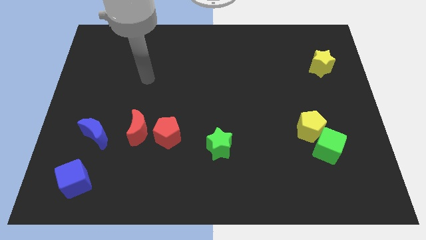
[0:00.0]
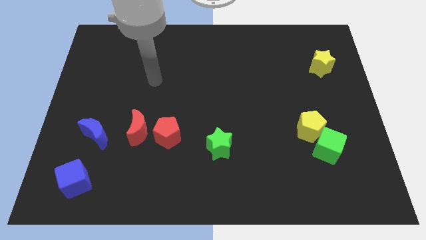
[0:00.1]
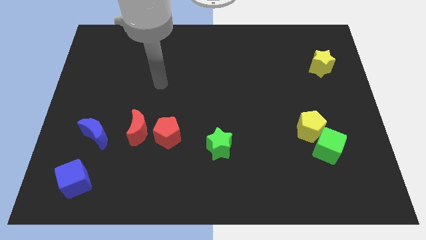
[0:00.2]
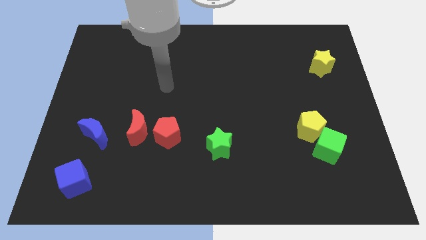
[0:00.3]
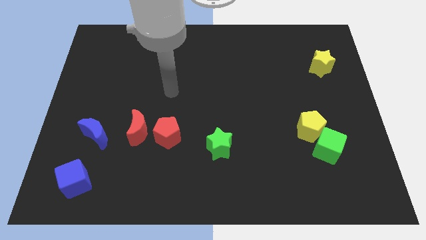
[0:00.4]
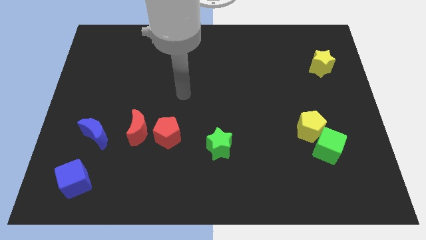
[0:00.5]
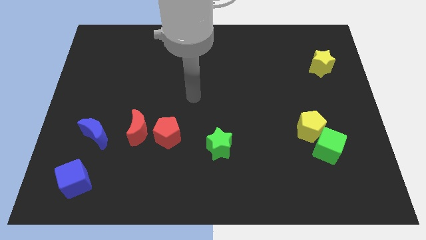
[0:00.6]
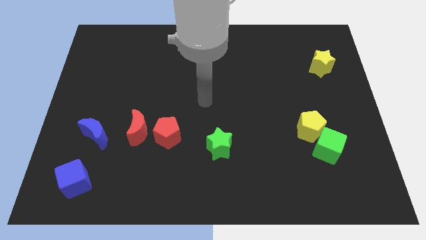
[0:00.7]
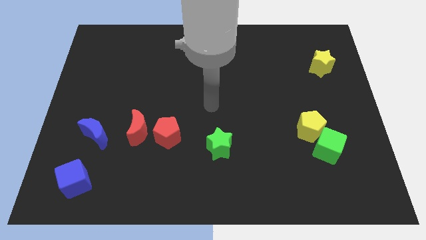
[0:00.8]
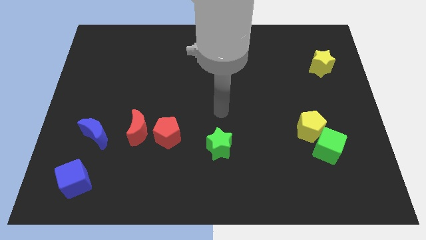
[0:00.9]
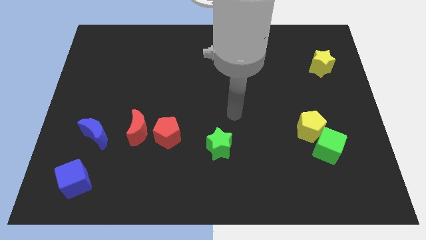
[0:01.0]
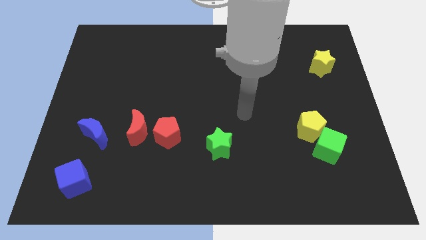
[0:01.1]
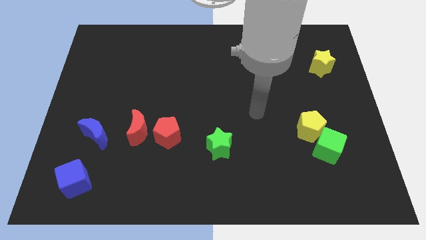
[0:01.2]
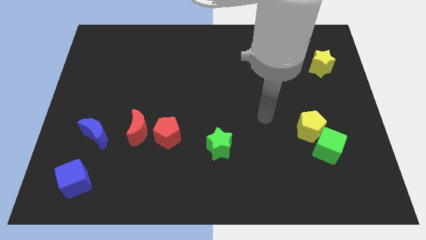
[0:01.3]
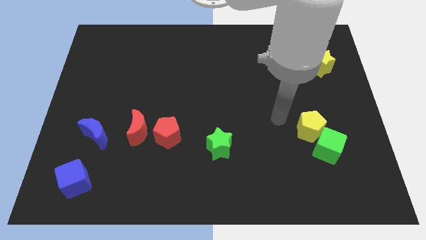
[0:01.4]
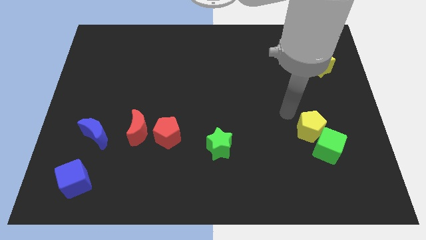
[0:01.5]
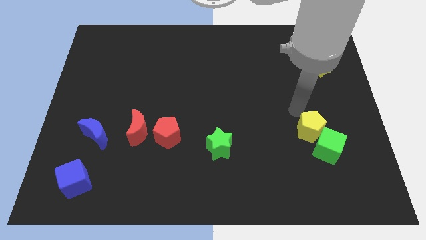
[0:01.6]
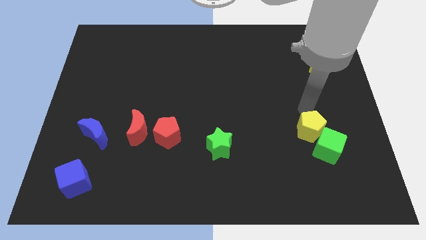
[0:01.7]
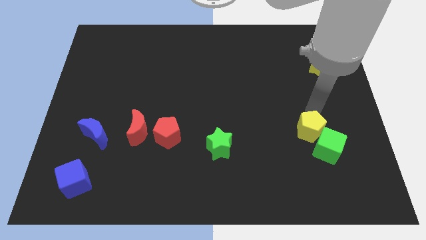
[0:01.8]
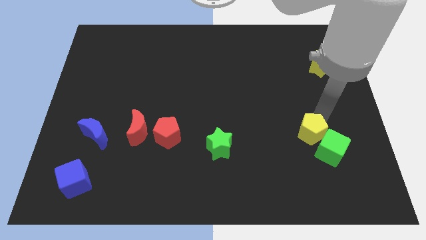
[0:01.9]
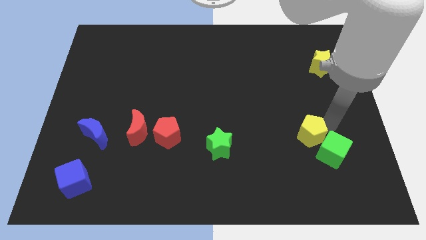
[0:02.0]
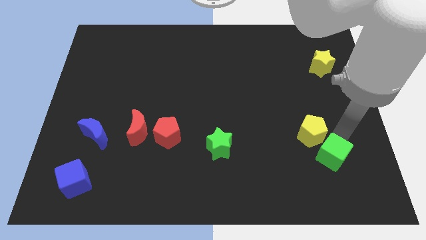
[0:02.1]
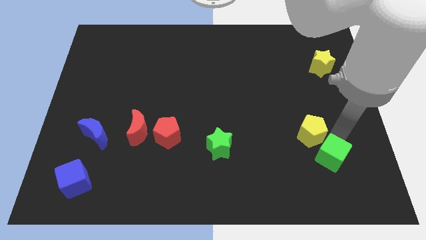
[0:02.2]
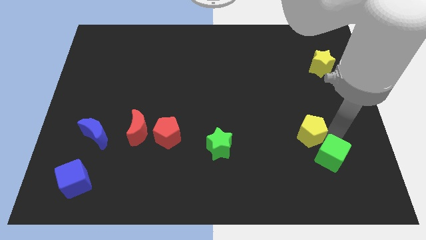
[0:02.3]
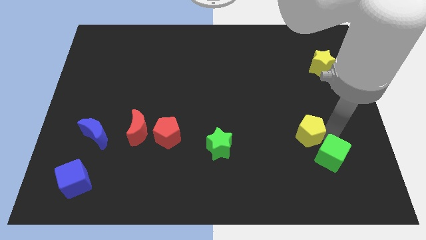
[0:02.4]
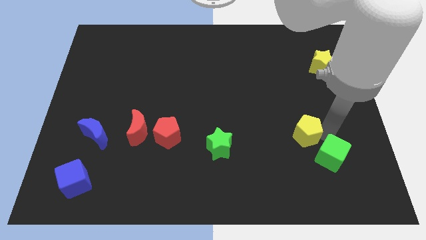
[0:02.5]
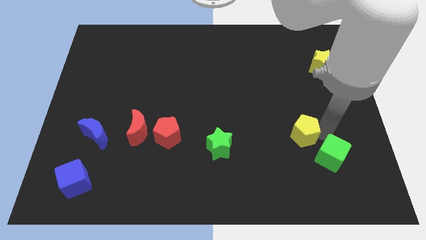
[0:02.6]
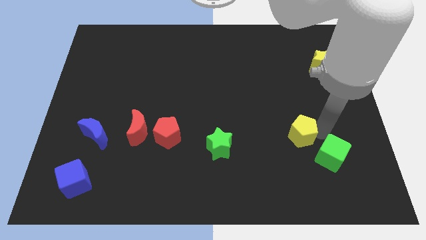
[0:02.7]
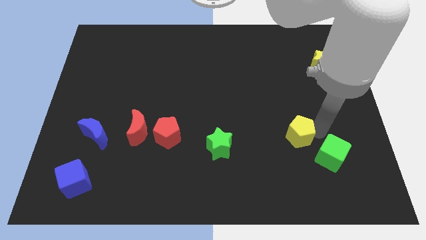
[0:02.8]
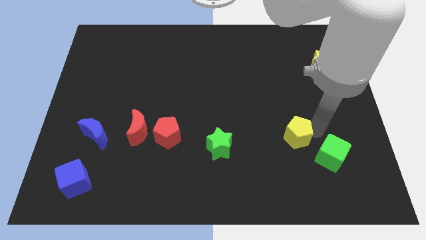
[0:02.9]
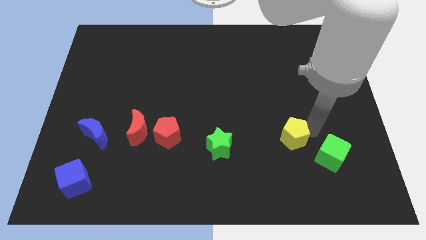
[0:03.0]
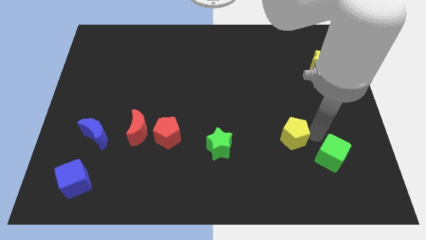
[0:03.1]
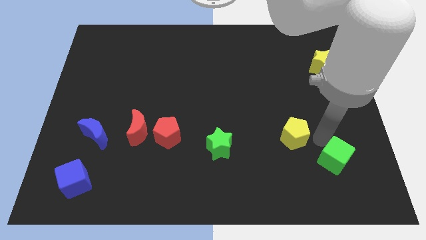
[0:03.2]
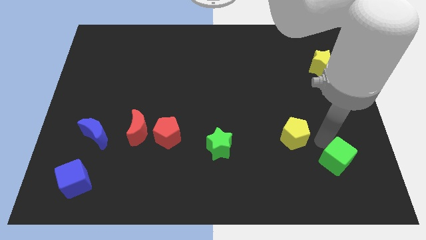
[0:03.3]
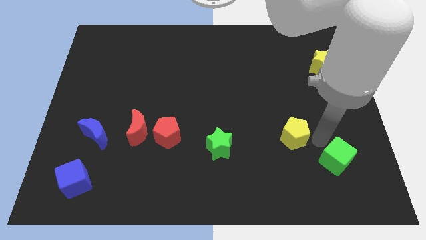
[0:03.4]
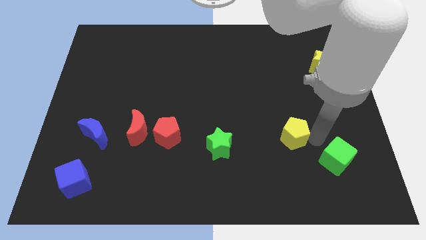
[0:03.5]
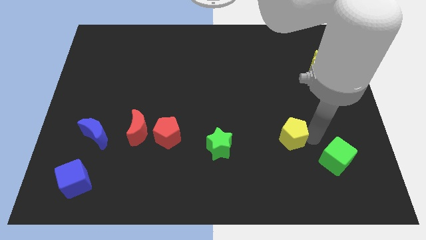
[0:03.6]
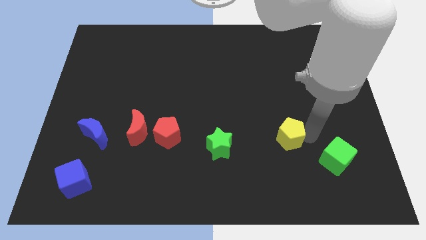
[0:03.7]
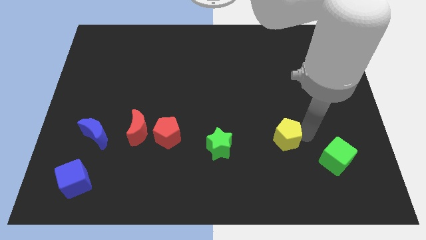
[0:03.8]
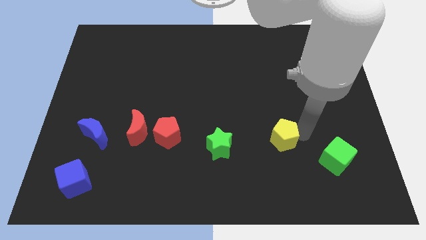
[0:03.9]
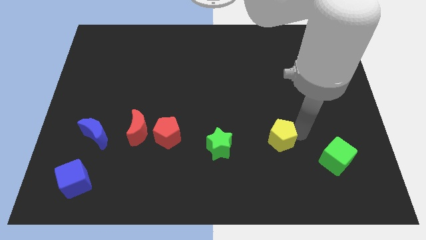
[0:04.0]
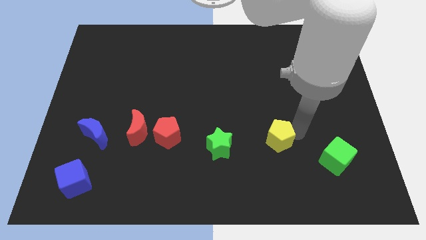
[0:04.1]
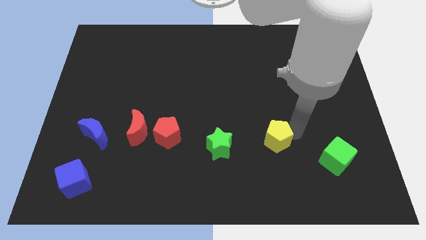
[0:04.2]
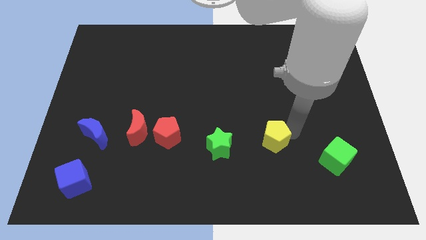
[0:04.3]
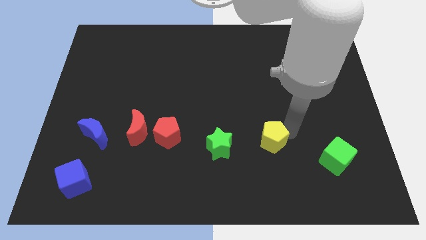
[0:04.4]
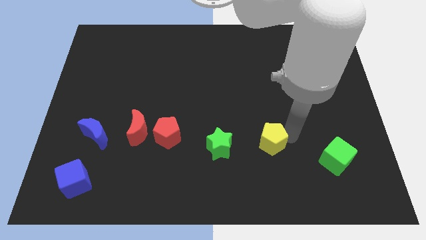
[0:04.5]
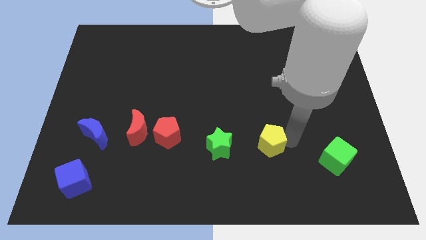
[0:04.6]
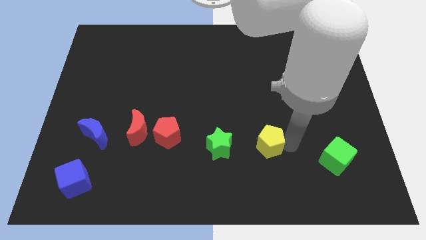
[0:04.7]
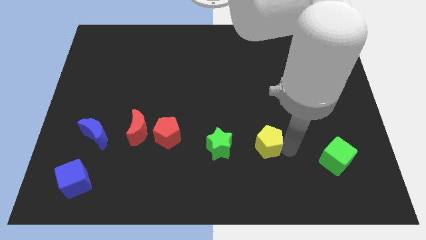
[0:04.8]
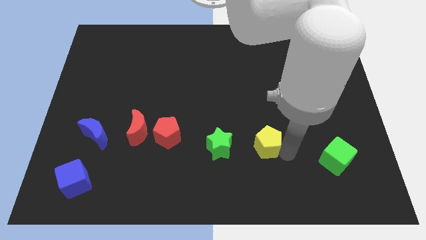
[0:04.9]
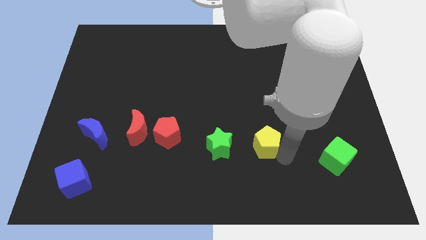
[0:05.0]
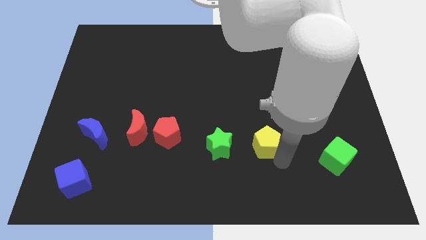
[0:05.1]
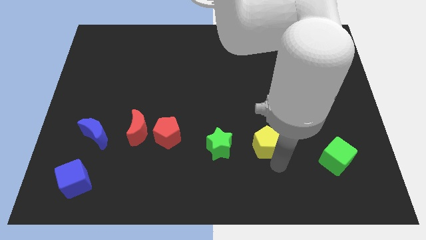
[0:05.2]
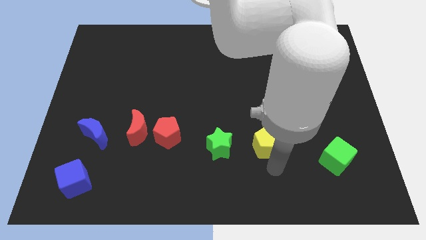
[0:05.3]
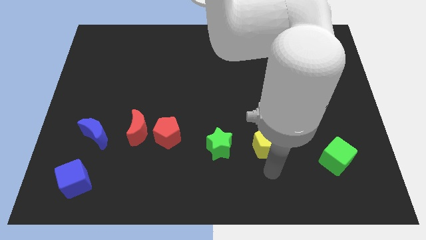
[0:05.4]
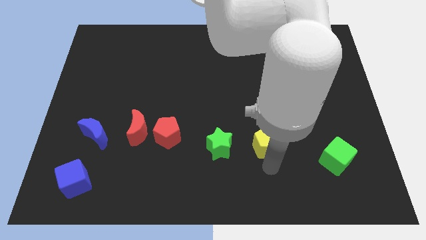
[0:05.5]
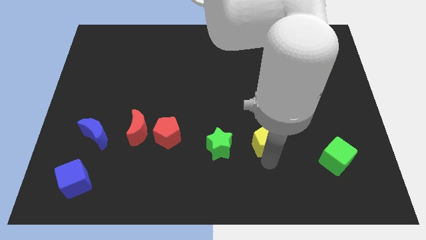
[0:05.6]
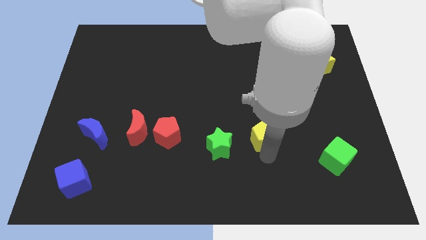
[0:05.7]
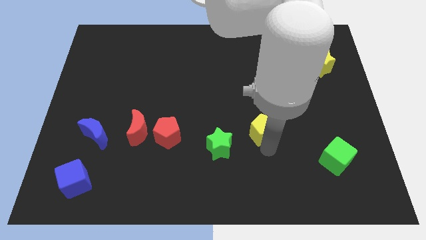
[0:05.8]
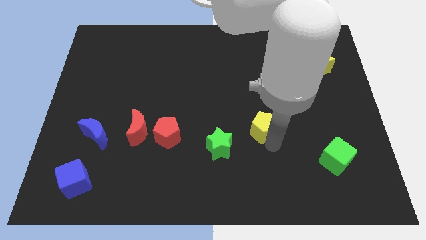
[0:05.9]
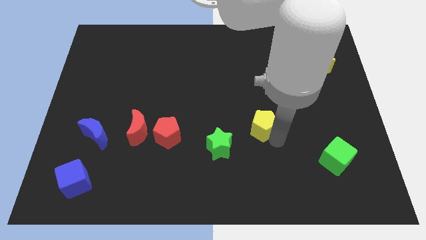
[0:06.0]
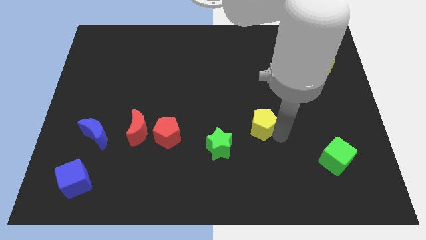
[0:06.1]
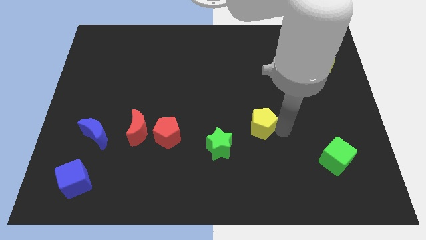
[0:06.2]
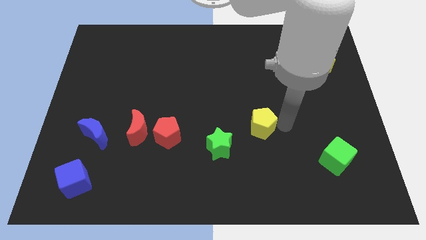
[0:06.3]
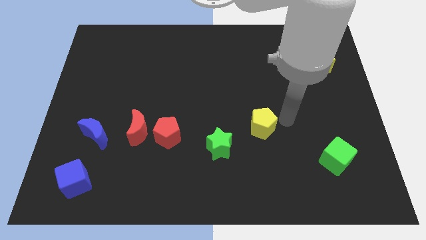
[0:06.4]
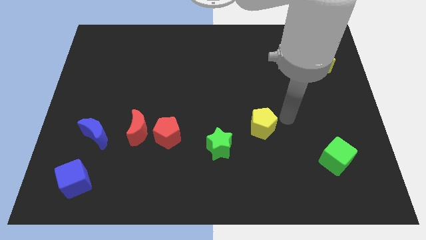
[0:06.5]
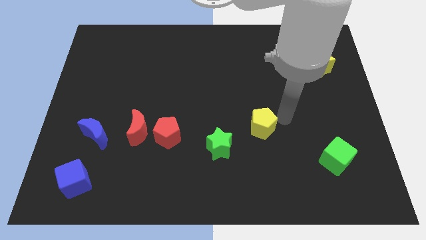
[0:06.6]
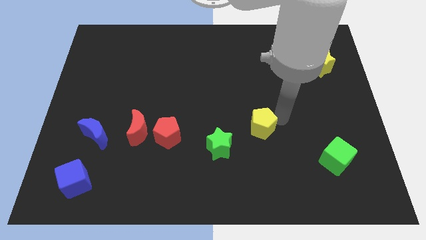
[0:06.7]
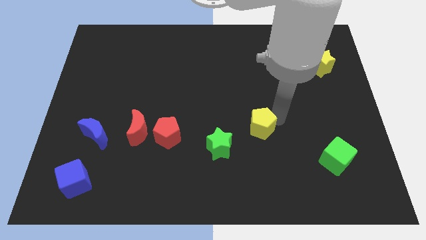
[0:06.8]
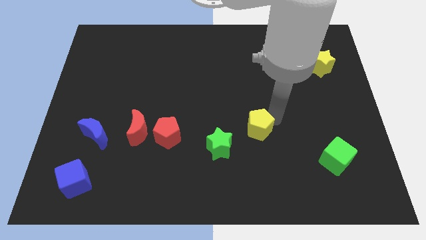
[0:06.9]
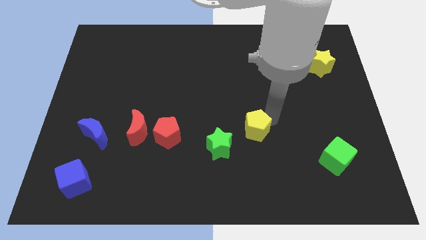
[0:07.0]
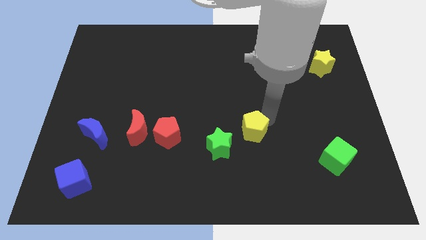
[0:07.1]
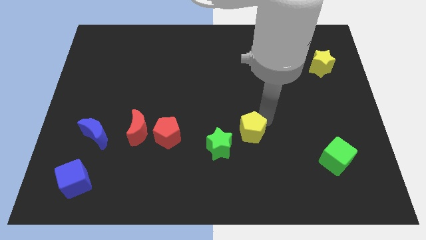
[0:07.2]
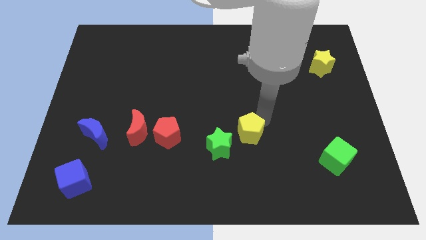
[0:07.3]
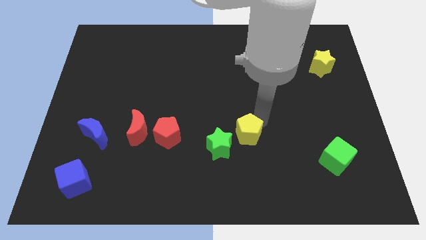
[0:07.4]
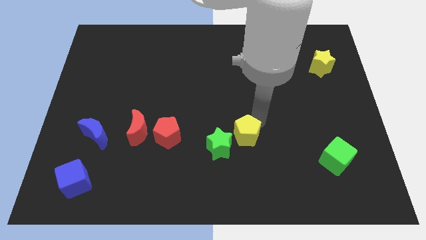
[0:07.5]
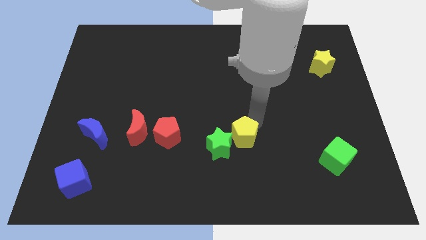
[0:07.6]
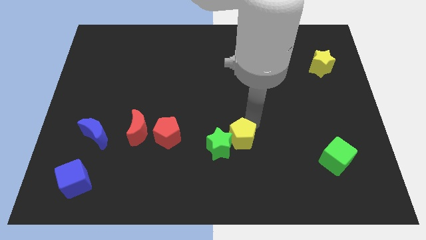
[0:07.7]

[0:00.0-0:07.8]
slide the yellow pentagon to the right side of the red pentagon
